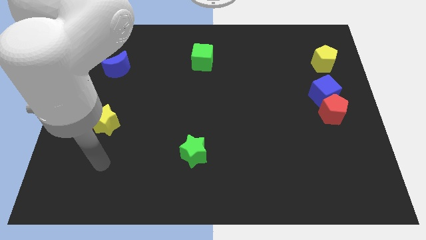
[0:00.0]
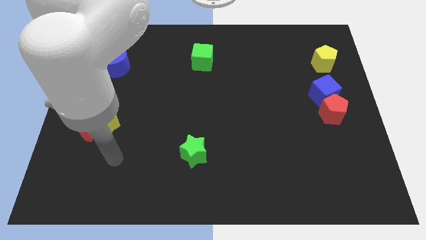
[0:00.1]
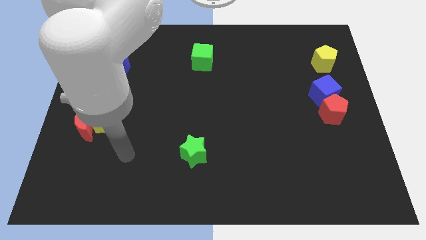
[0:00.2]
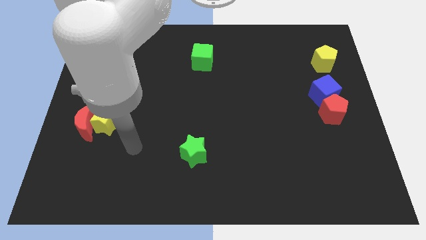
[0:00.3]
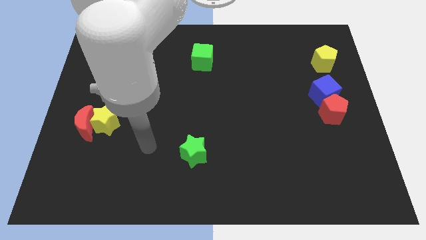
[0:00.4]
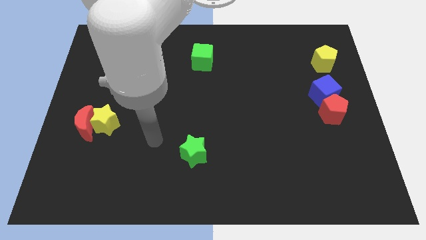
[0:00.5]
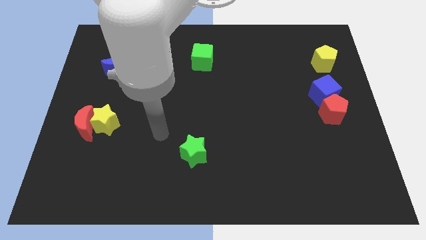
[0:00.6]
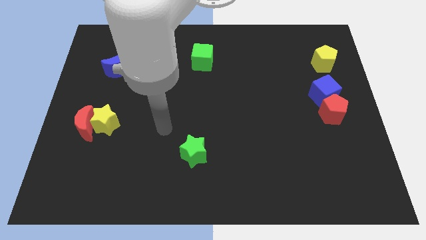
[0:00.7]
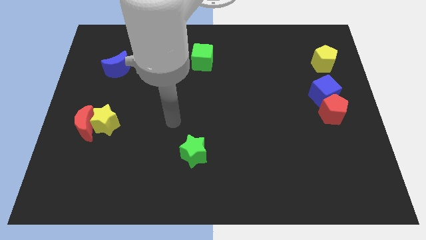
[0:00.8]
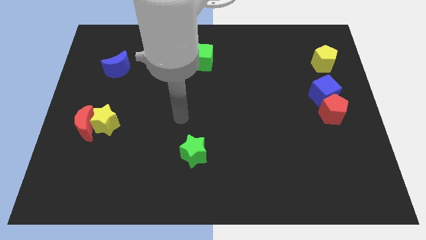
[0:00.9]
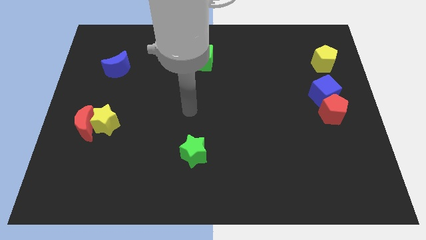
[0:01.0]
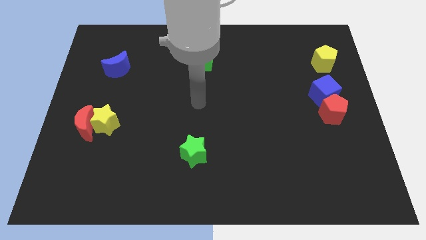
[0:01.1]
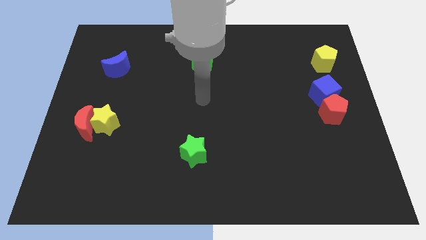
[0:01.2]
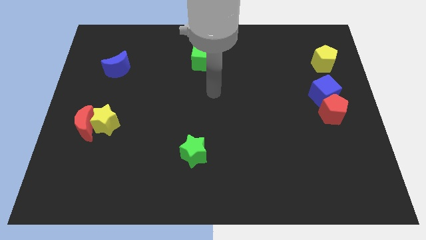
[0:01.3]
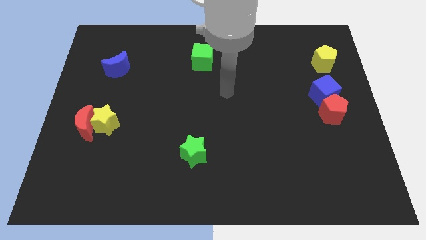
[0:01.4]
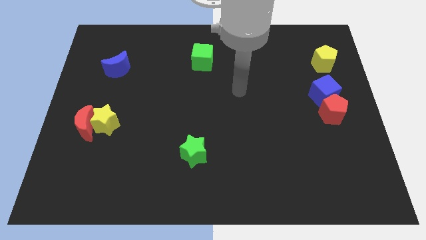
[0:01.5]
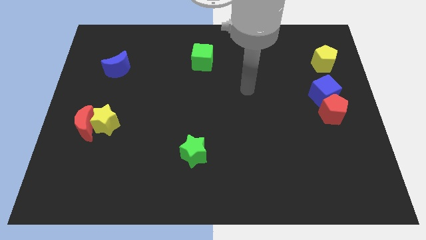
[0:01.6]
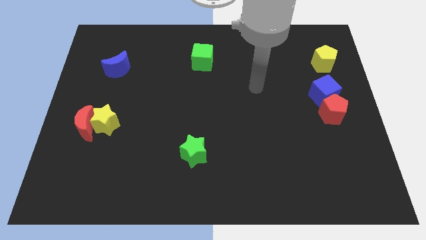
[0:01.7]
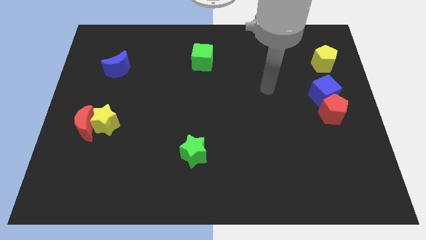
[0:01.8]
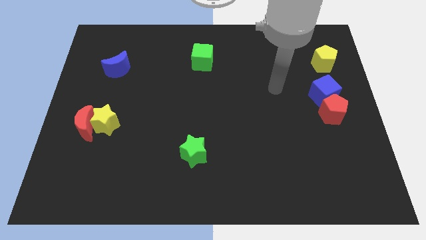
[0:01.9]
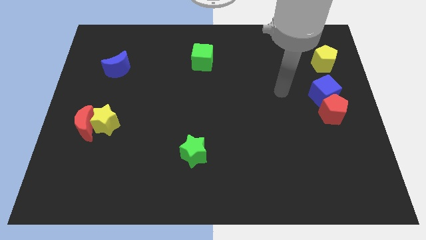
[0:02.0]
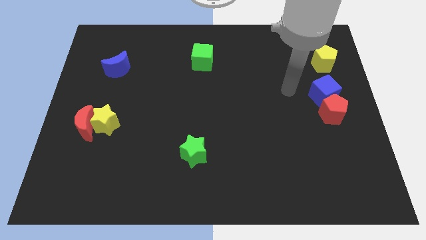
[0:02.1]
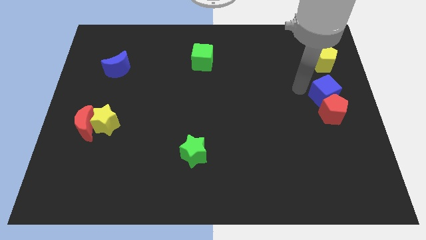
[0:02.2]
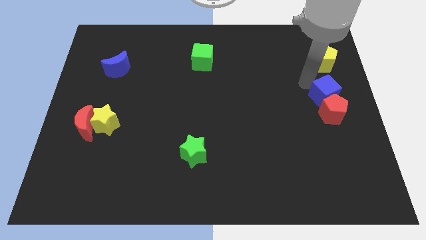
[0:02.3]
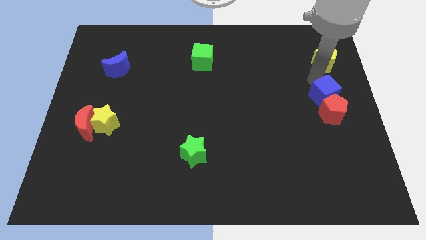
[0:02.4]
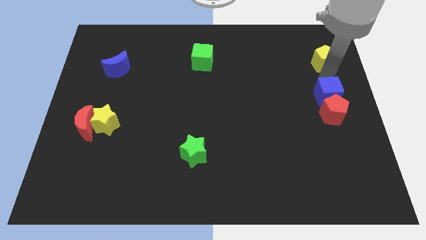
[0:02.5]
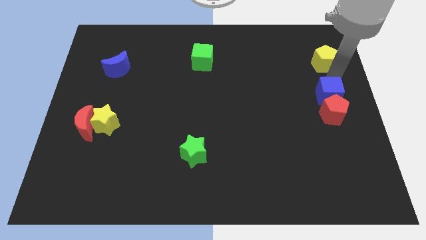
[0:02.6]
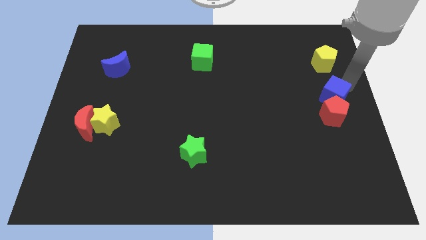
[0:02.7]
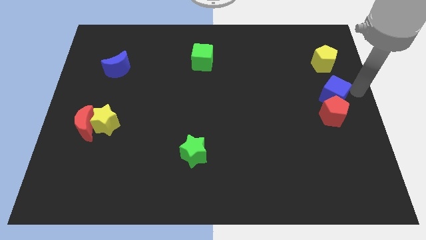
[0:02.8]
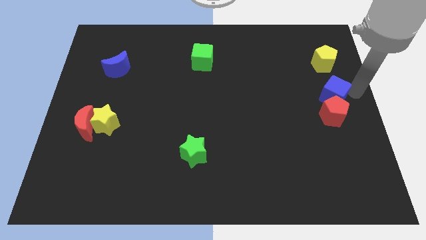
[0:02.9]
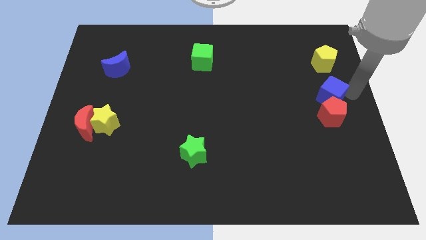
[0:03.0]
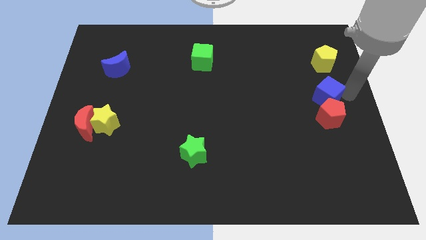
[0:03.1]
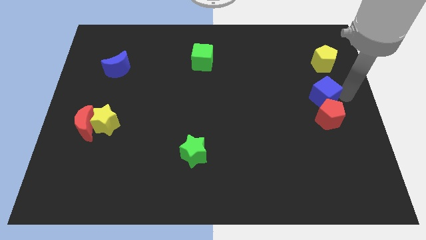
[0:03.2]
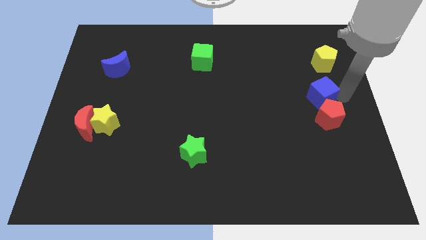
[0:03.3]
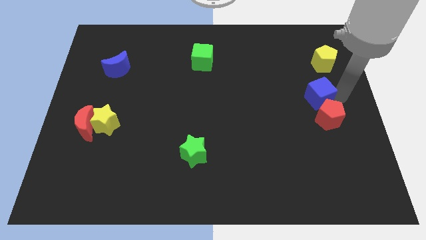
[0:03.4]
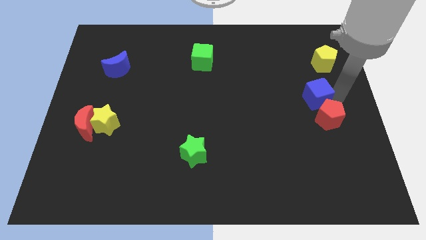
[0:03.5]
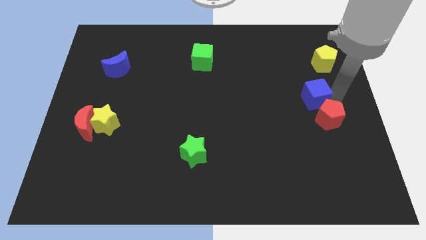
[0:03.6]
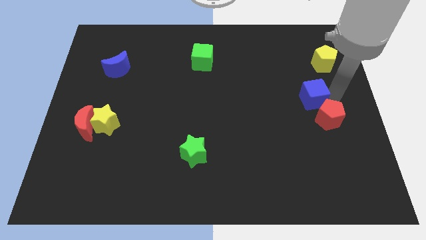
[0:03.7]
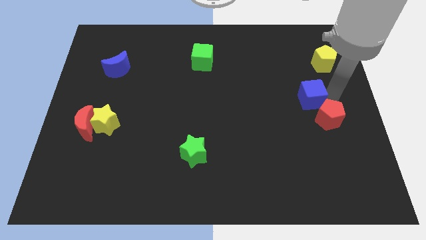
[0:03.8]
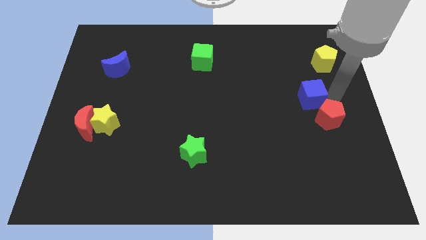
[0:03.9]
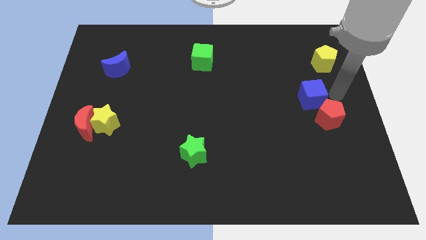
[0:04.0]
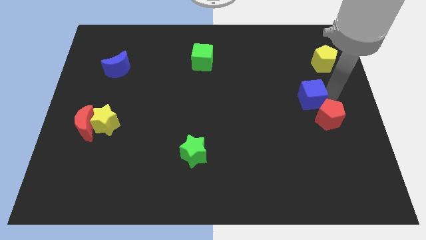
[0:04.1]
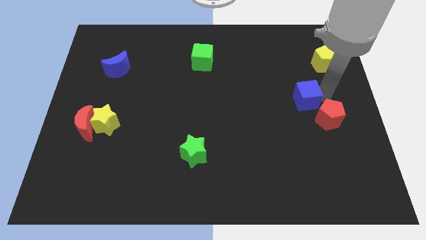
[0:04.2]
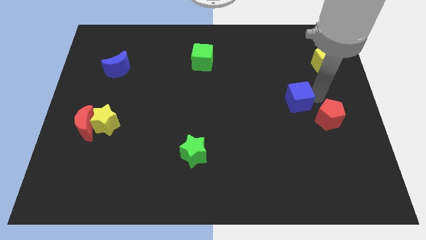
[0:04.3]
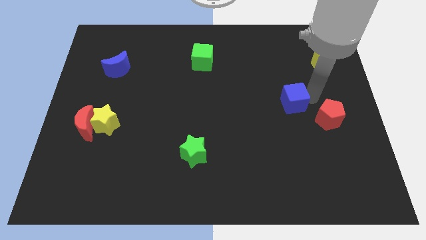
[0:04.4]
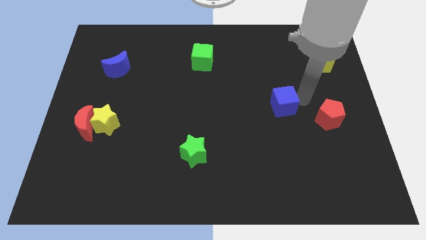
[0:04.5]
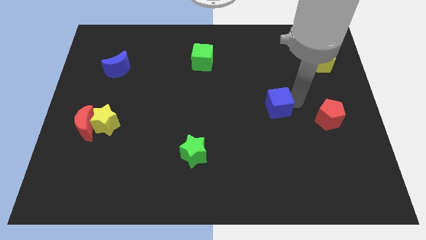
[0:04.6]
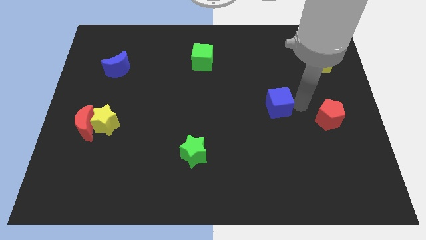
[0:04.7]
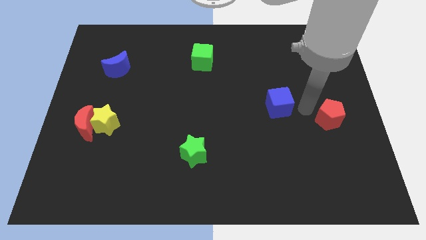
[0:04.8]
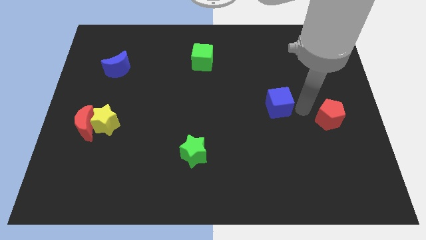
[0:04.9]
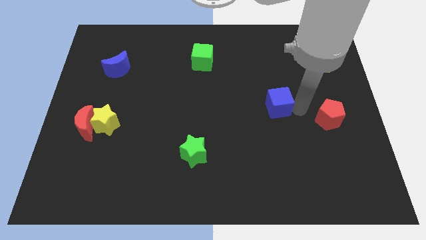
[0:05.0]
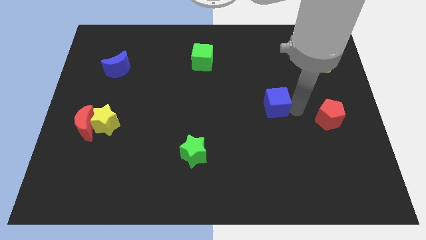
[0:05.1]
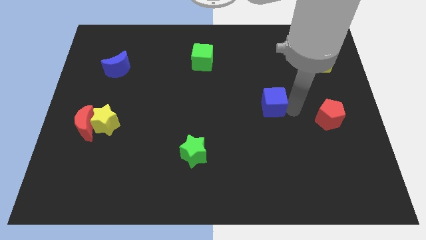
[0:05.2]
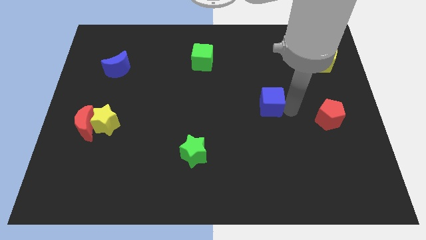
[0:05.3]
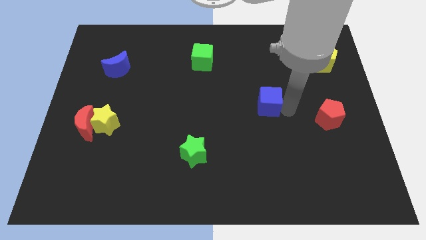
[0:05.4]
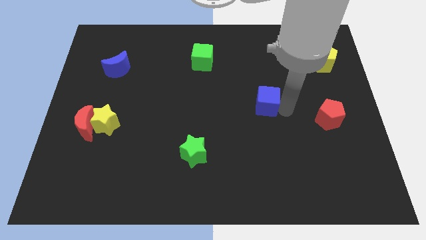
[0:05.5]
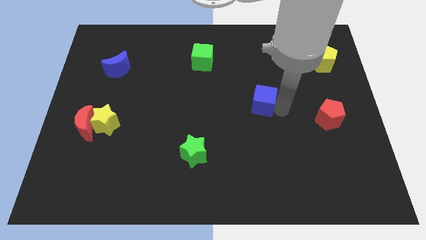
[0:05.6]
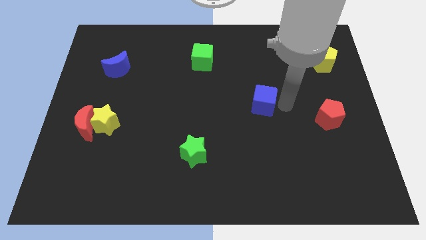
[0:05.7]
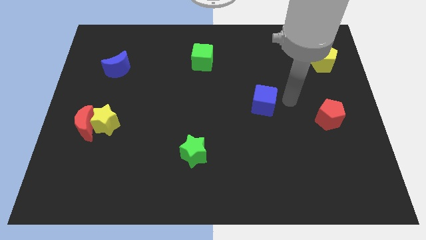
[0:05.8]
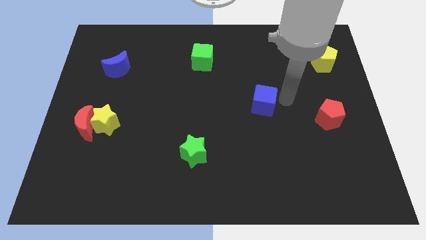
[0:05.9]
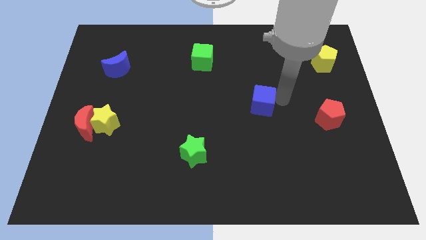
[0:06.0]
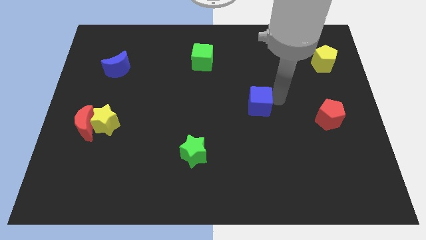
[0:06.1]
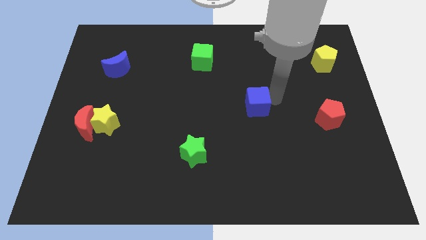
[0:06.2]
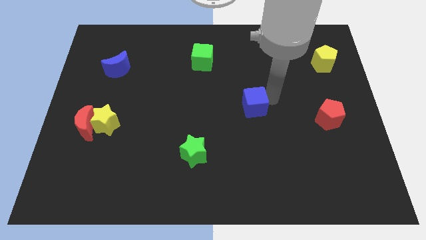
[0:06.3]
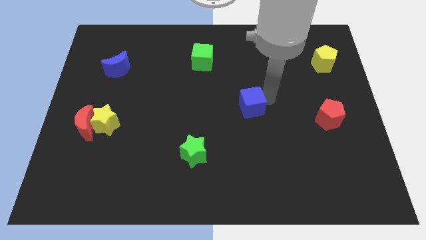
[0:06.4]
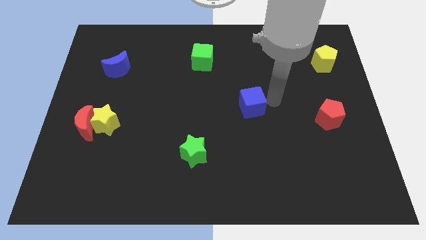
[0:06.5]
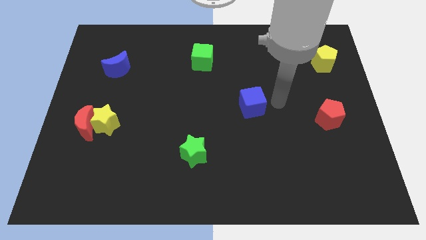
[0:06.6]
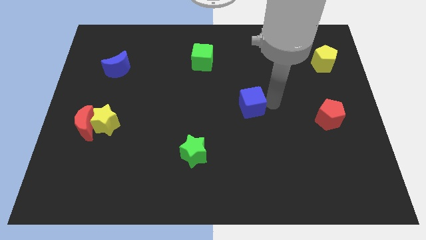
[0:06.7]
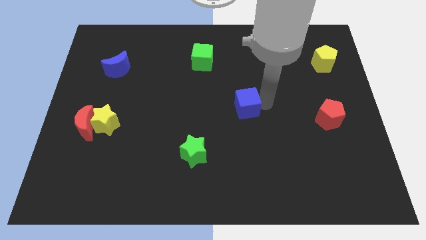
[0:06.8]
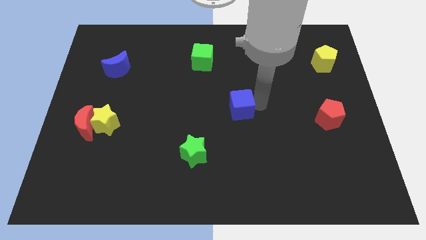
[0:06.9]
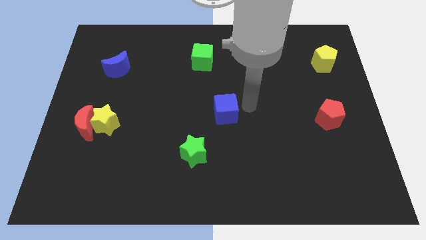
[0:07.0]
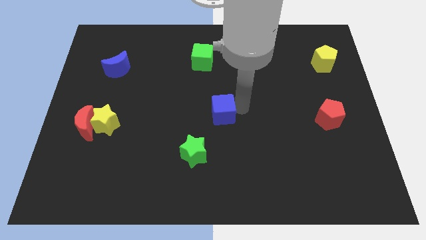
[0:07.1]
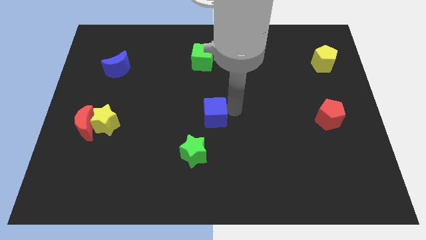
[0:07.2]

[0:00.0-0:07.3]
slide the blue cube to the top of the green star
